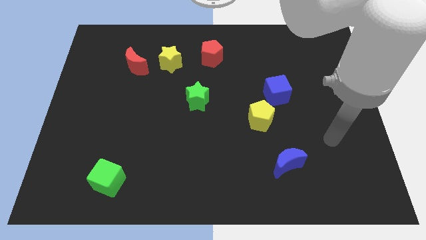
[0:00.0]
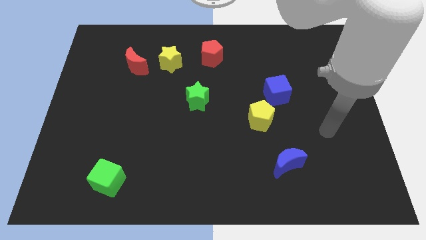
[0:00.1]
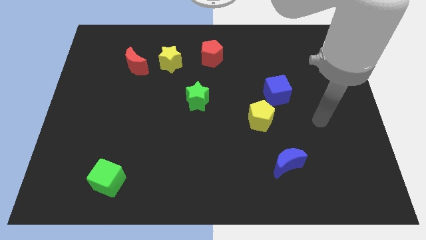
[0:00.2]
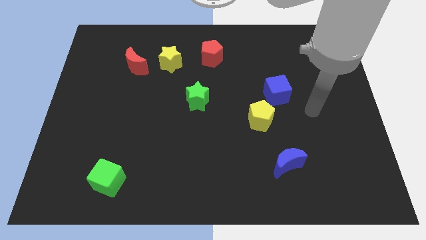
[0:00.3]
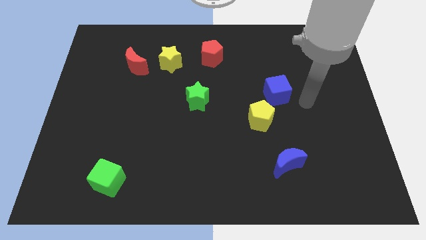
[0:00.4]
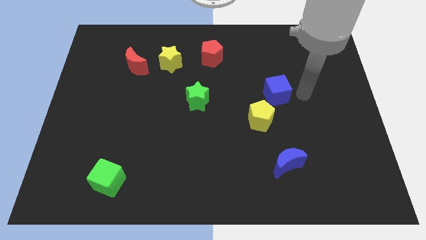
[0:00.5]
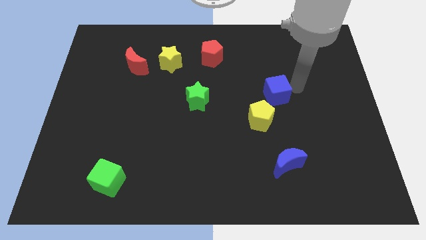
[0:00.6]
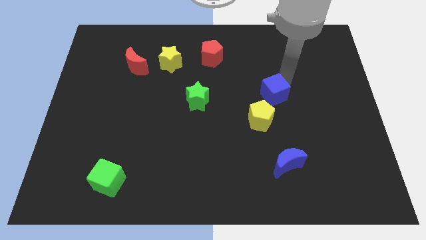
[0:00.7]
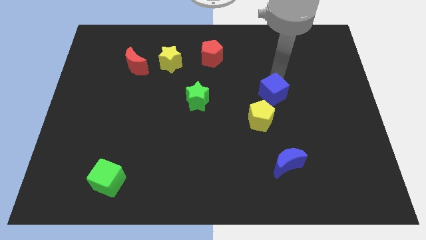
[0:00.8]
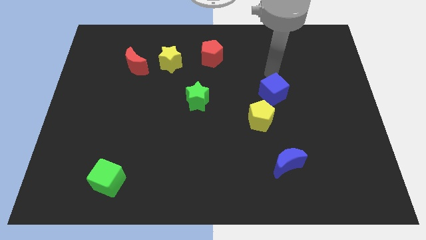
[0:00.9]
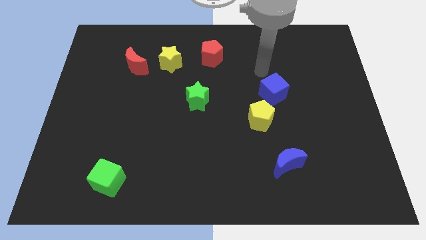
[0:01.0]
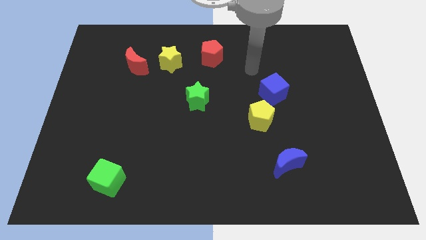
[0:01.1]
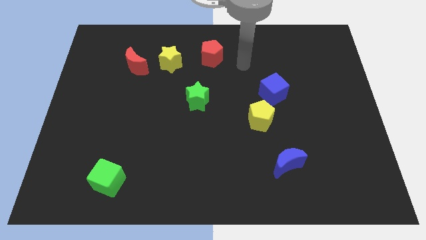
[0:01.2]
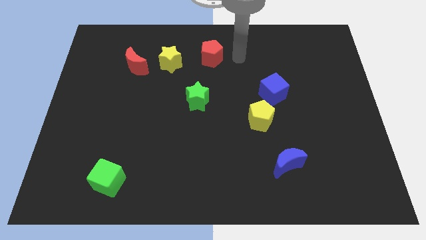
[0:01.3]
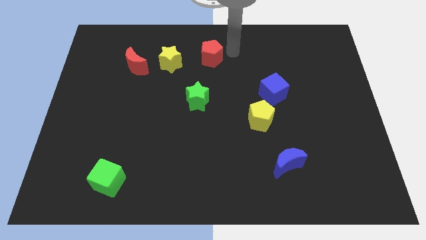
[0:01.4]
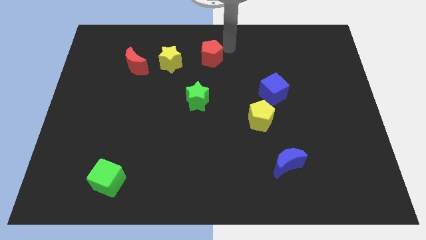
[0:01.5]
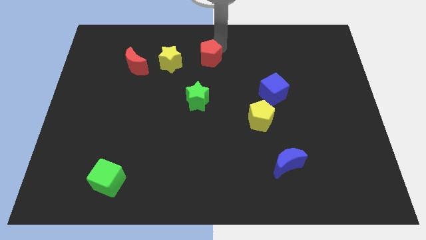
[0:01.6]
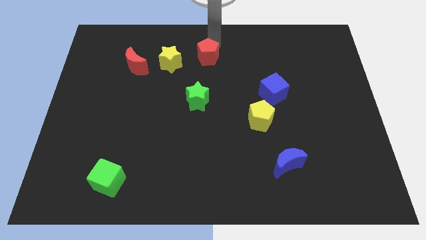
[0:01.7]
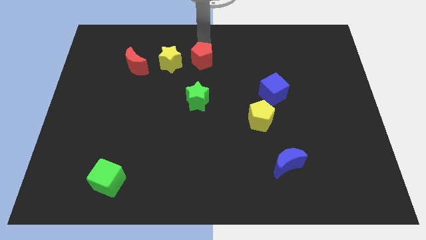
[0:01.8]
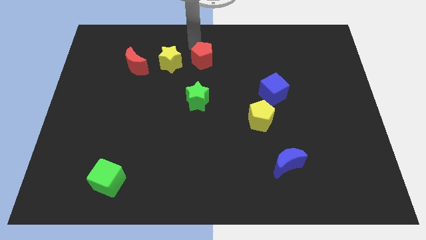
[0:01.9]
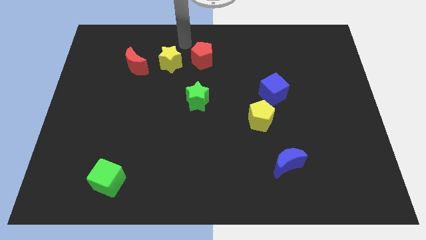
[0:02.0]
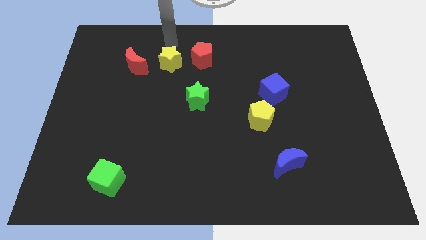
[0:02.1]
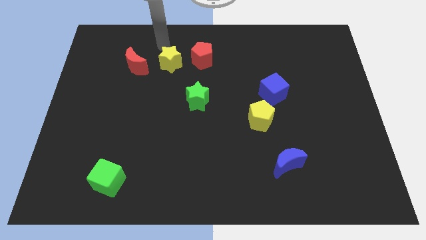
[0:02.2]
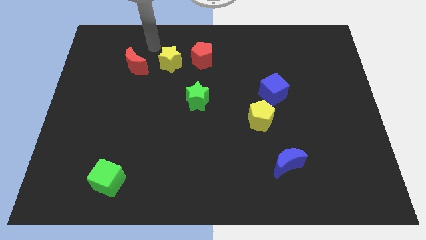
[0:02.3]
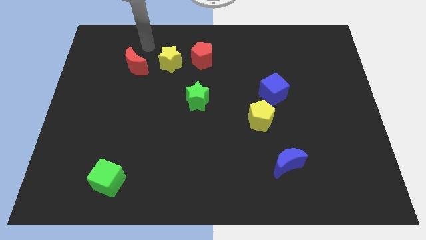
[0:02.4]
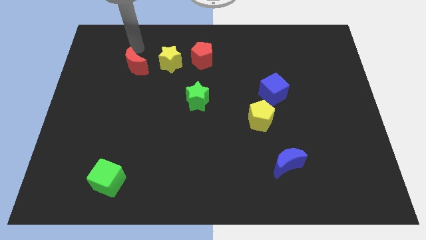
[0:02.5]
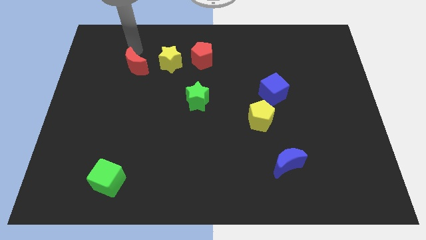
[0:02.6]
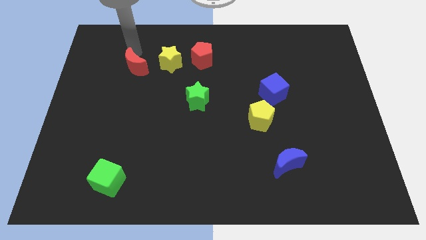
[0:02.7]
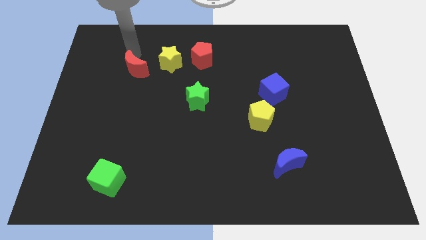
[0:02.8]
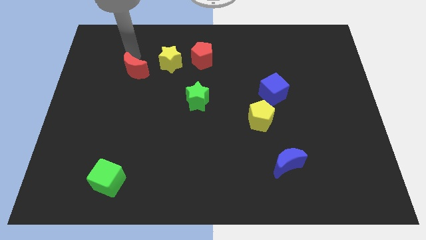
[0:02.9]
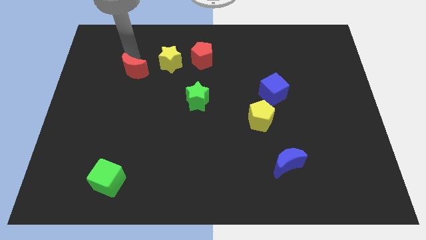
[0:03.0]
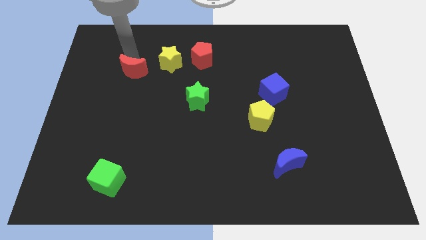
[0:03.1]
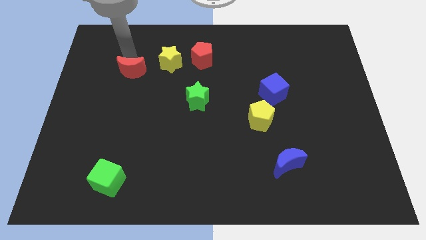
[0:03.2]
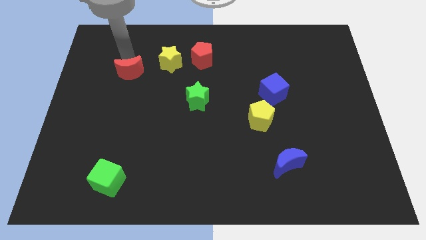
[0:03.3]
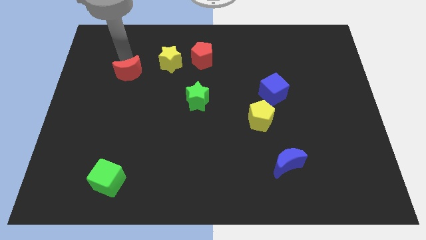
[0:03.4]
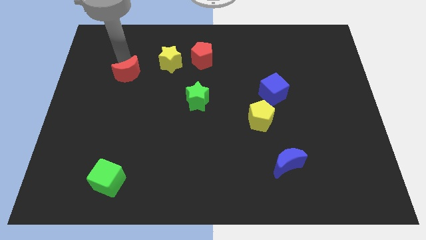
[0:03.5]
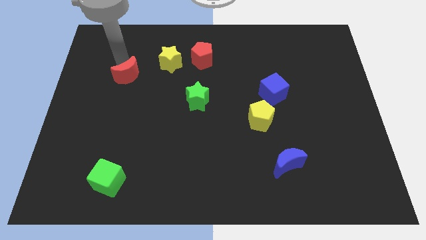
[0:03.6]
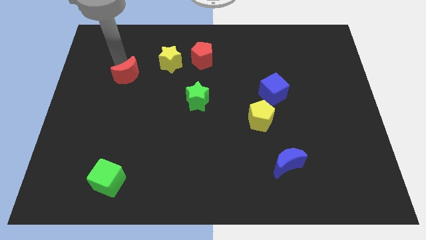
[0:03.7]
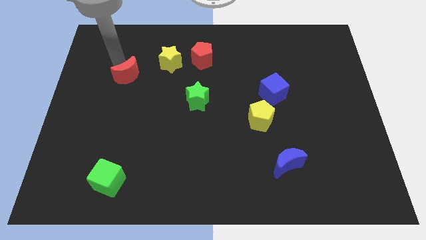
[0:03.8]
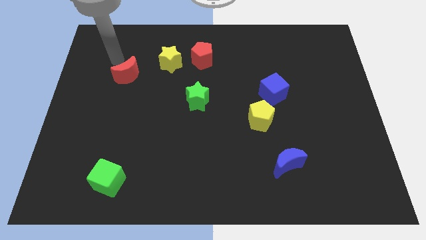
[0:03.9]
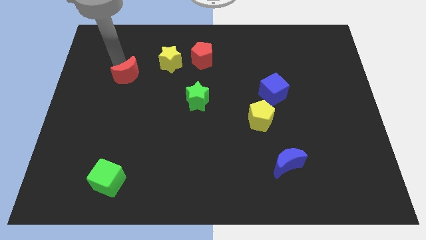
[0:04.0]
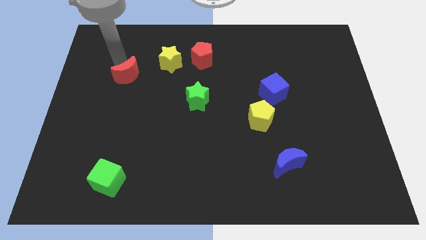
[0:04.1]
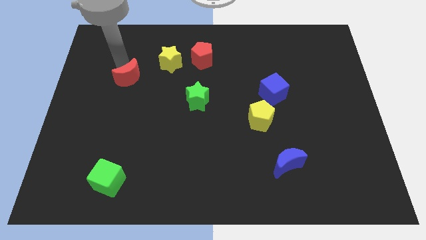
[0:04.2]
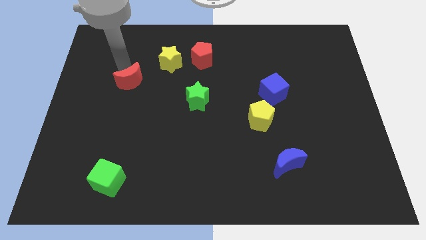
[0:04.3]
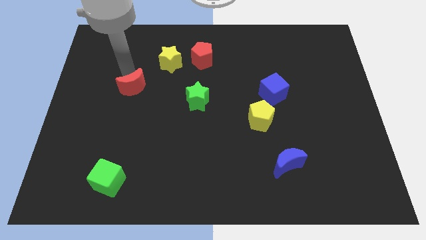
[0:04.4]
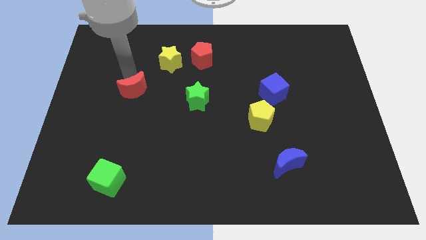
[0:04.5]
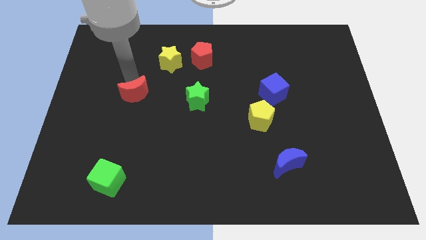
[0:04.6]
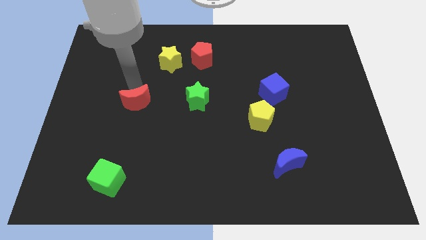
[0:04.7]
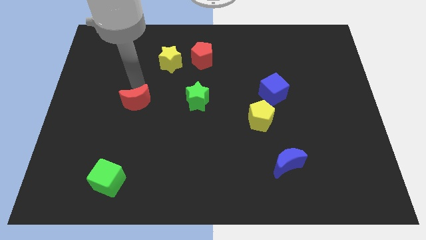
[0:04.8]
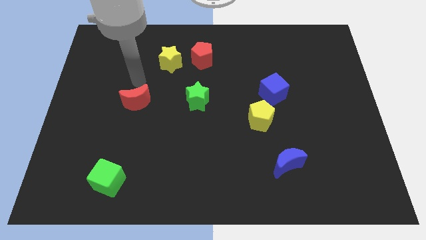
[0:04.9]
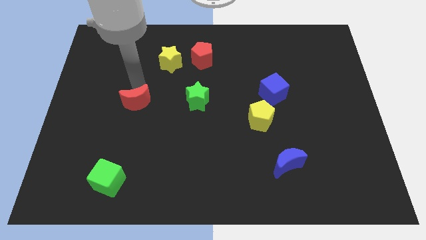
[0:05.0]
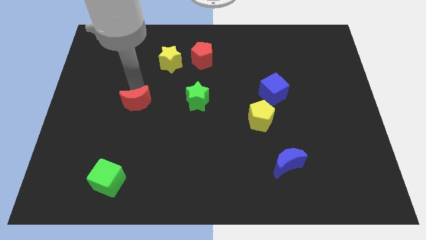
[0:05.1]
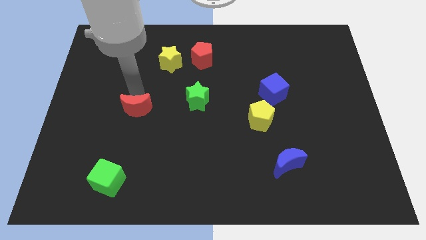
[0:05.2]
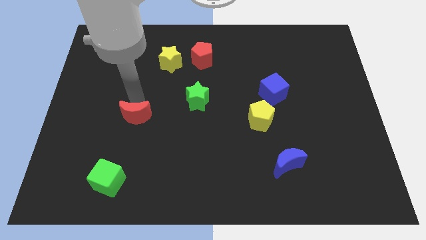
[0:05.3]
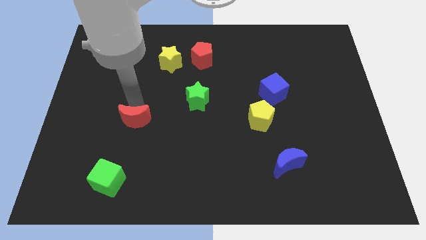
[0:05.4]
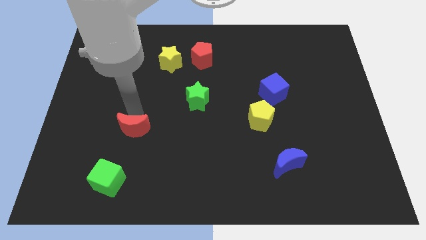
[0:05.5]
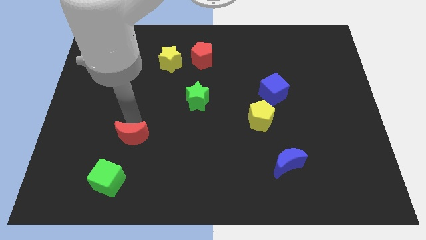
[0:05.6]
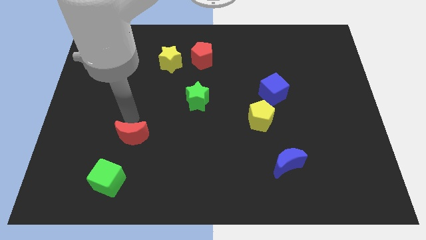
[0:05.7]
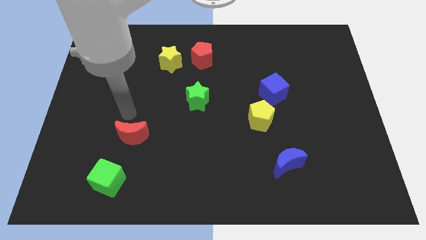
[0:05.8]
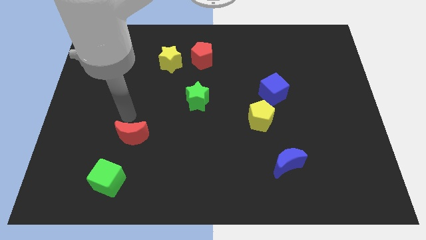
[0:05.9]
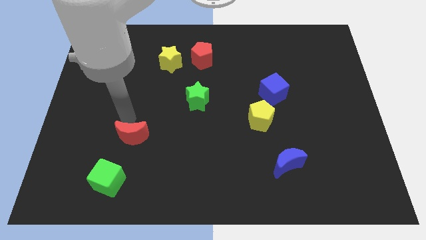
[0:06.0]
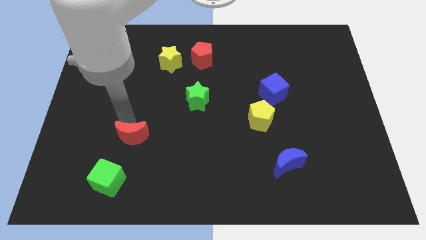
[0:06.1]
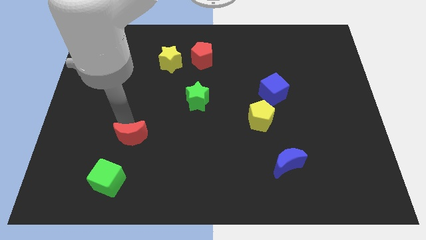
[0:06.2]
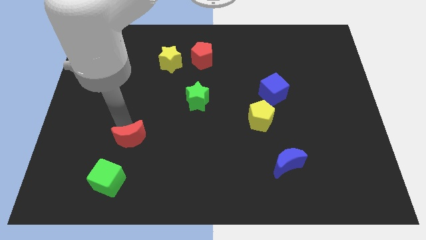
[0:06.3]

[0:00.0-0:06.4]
slide the red moon to the top right of the green cube

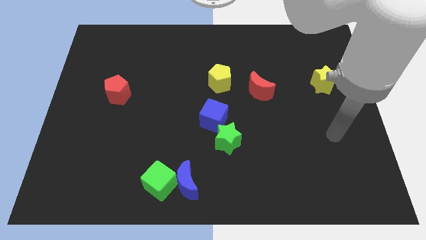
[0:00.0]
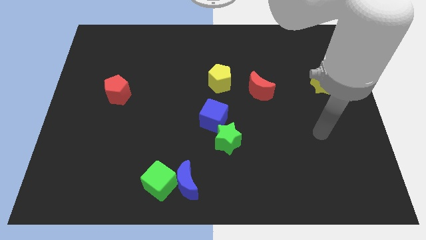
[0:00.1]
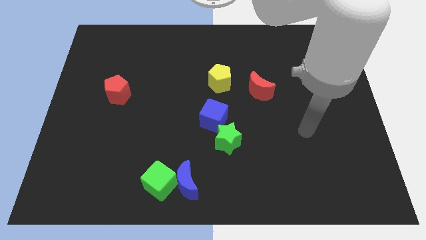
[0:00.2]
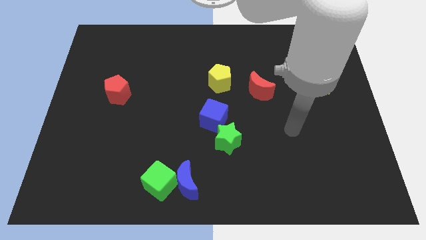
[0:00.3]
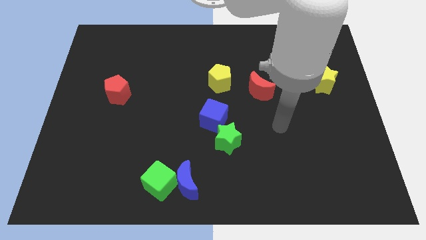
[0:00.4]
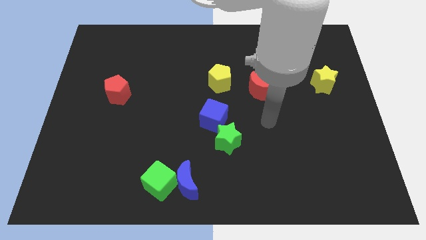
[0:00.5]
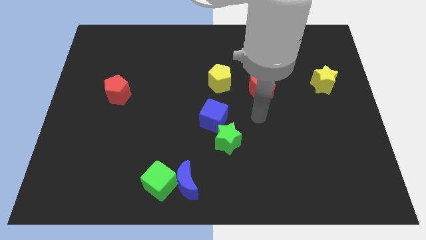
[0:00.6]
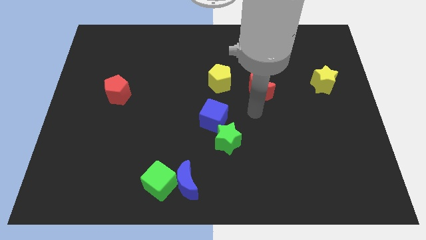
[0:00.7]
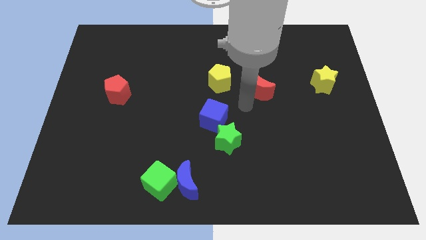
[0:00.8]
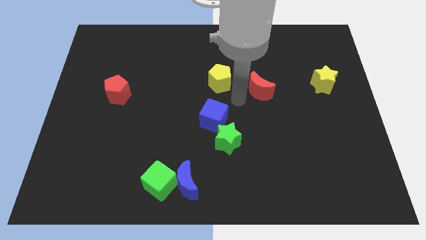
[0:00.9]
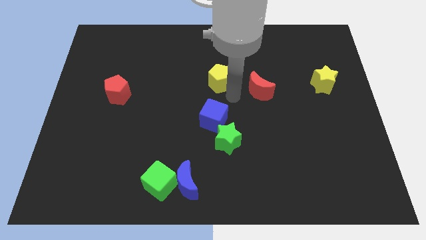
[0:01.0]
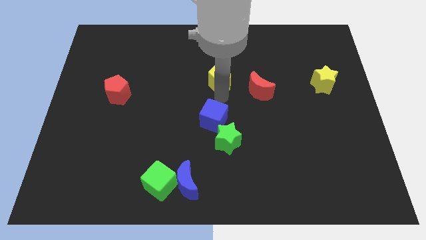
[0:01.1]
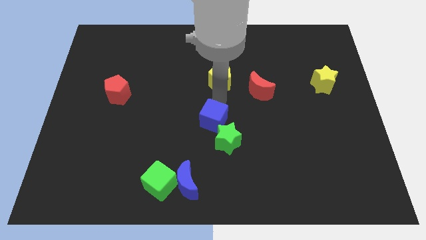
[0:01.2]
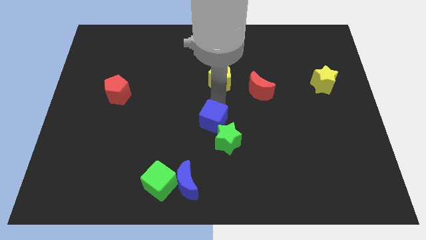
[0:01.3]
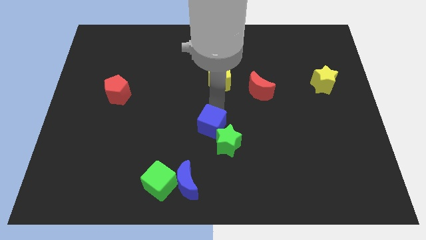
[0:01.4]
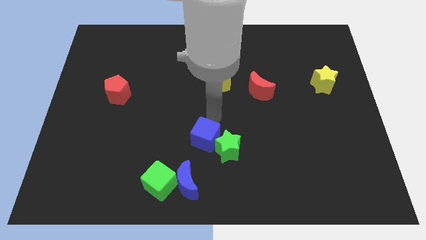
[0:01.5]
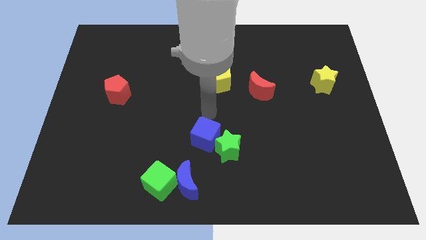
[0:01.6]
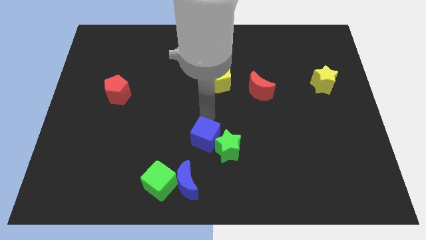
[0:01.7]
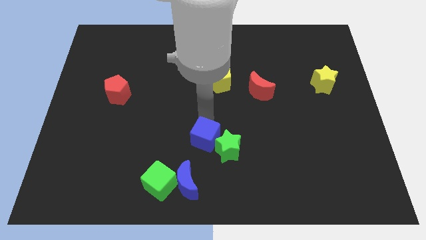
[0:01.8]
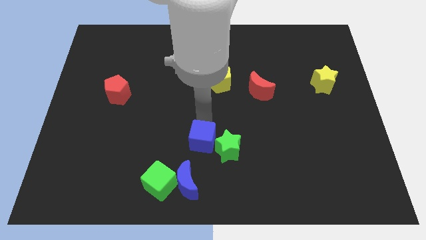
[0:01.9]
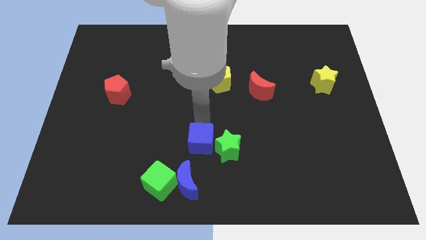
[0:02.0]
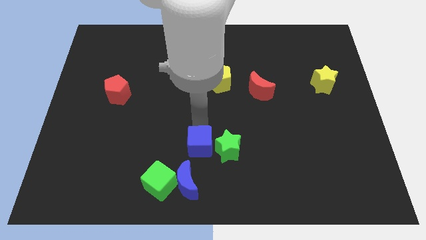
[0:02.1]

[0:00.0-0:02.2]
move the blue cube diagonally down and to the left of the green star
